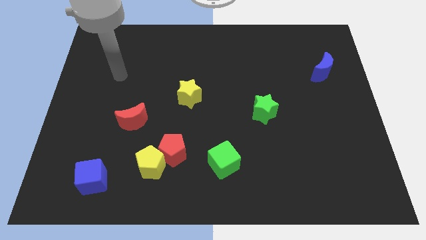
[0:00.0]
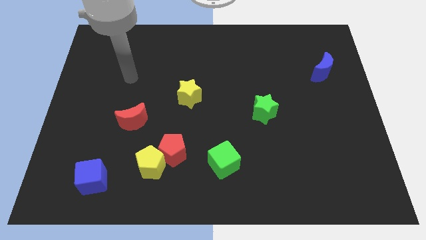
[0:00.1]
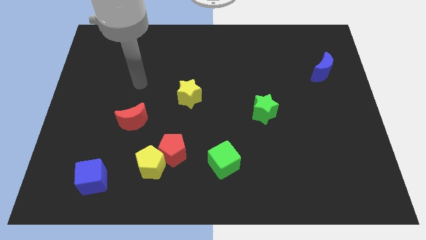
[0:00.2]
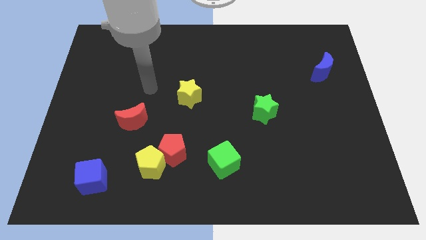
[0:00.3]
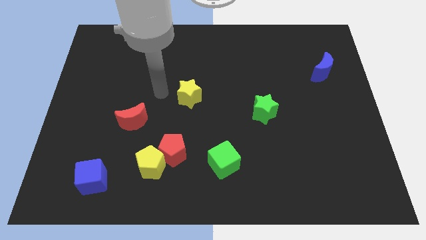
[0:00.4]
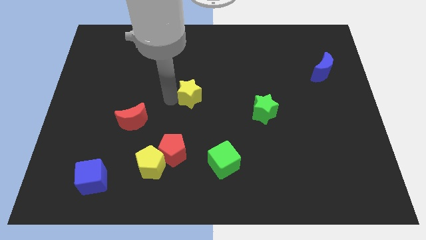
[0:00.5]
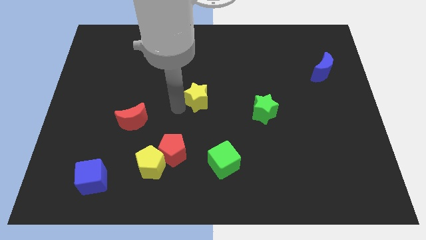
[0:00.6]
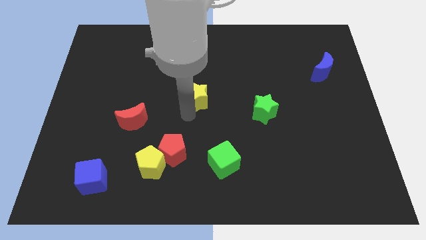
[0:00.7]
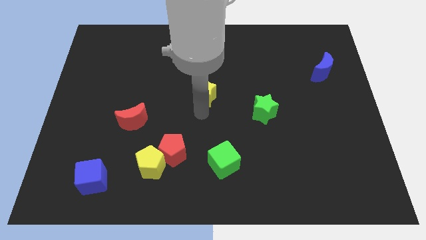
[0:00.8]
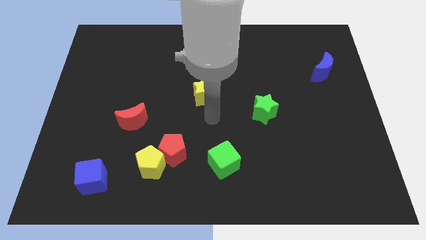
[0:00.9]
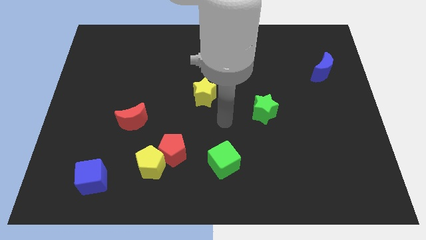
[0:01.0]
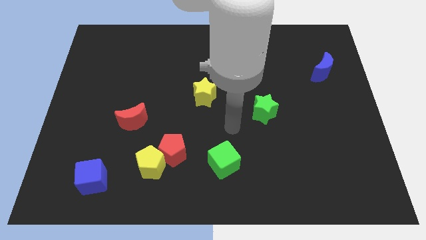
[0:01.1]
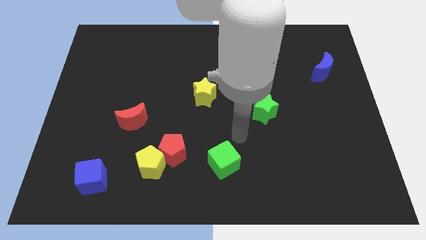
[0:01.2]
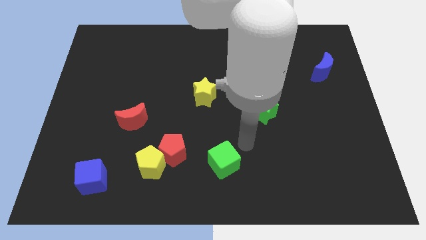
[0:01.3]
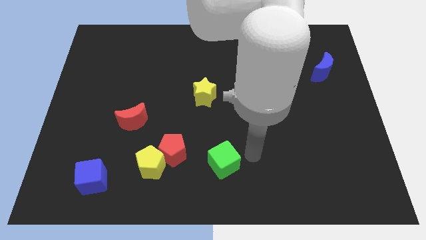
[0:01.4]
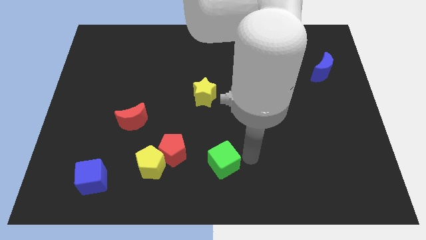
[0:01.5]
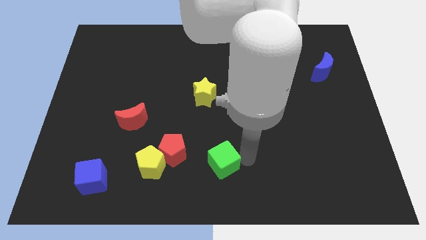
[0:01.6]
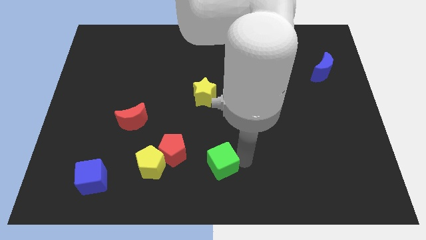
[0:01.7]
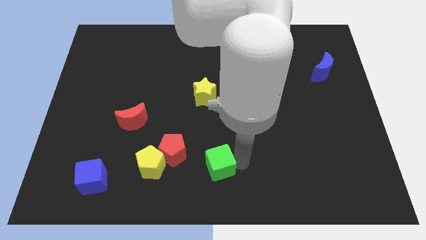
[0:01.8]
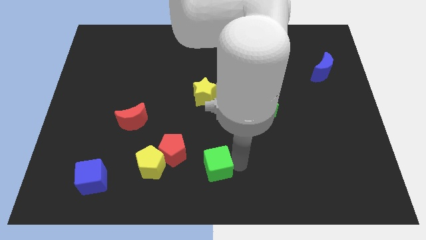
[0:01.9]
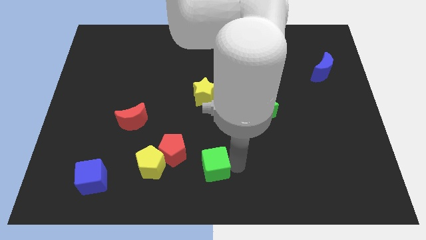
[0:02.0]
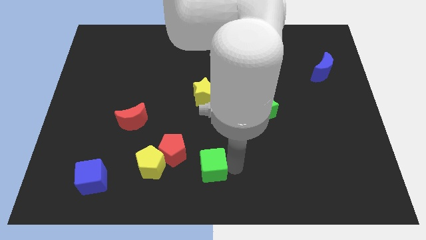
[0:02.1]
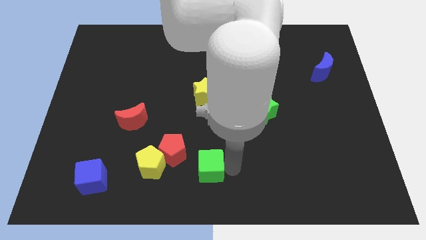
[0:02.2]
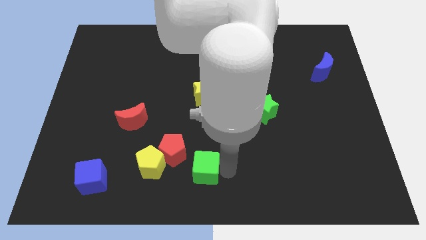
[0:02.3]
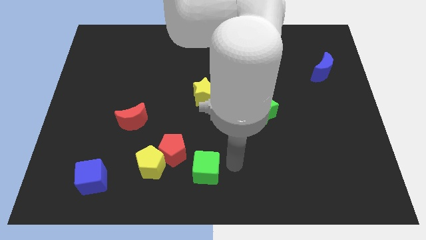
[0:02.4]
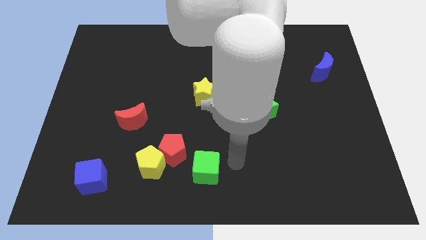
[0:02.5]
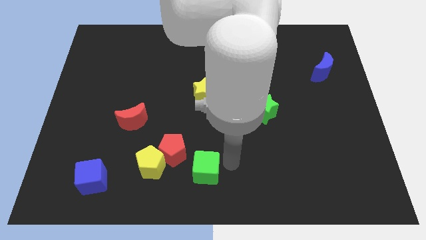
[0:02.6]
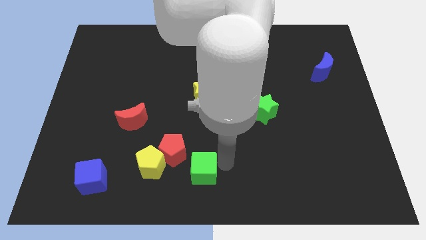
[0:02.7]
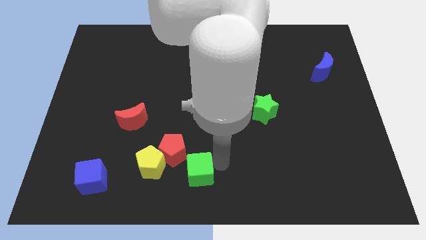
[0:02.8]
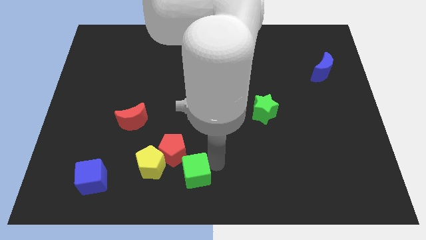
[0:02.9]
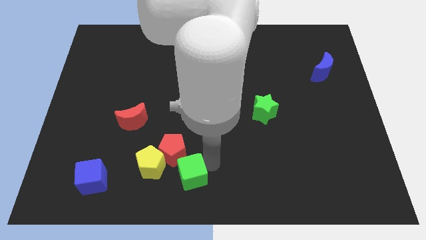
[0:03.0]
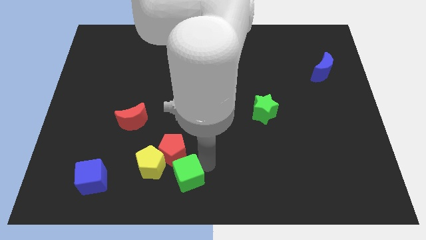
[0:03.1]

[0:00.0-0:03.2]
slide the green cube to the left a little bit

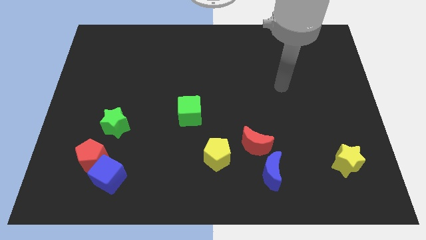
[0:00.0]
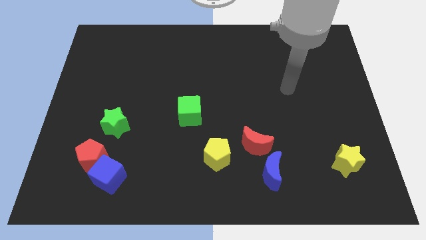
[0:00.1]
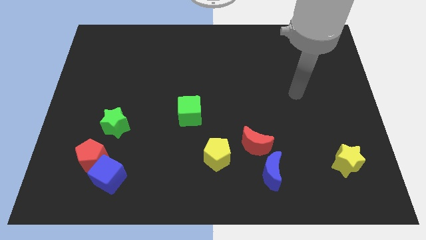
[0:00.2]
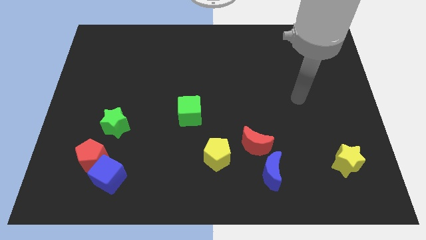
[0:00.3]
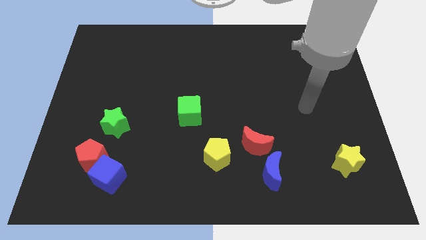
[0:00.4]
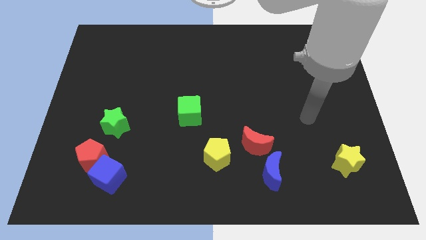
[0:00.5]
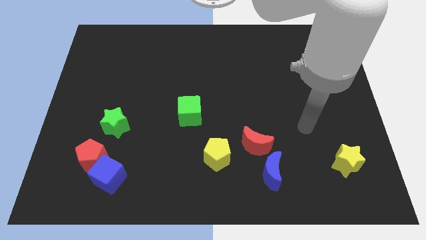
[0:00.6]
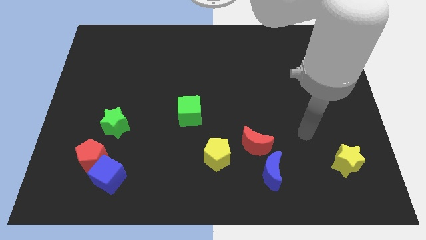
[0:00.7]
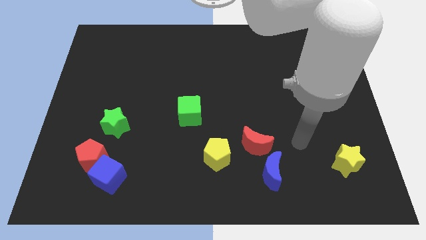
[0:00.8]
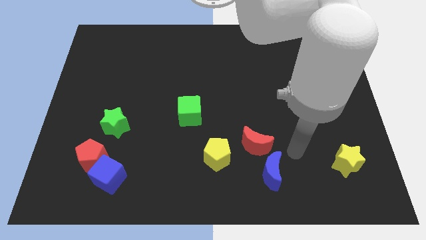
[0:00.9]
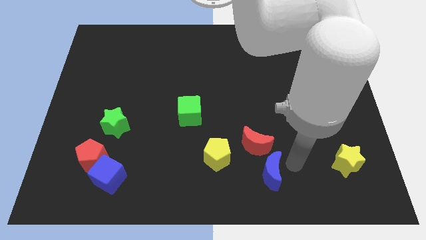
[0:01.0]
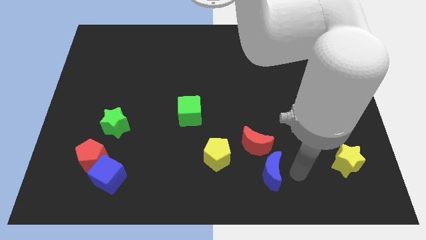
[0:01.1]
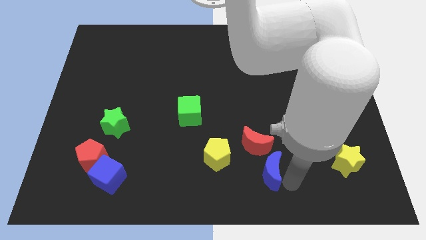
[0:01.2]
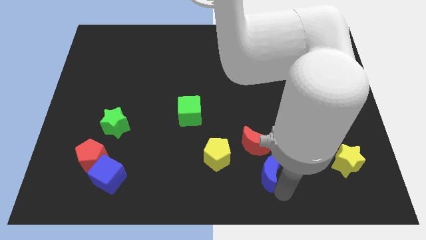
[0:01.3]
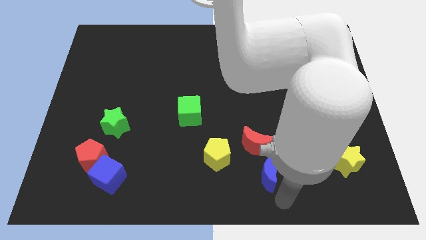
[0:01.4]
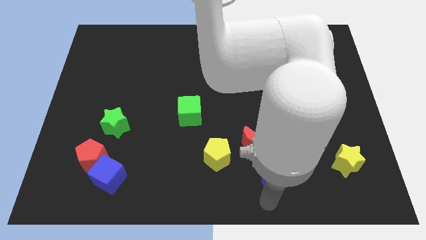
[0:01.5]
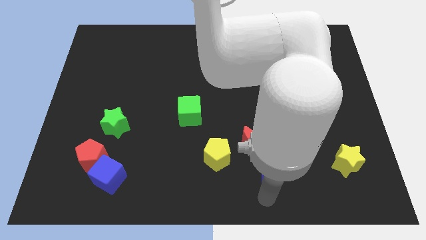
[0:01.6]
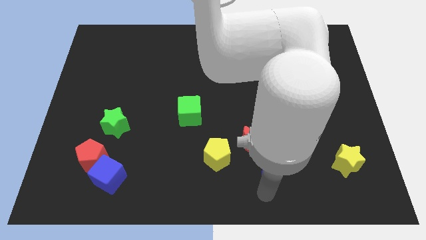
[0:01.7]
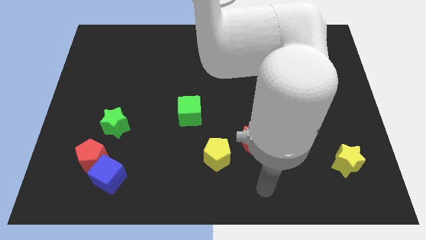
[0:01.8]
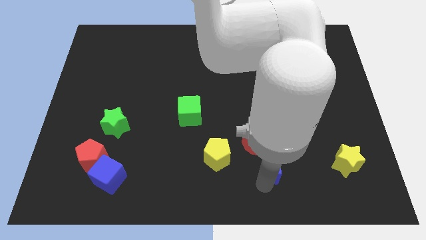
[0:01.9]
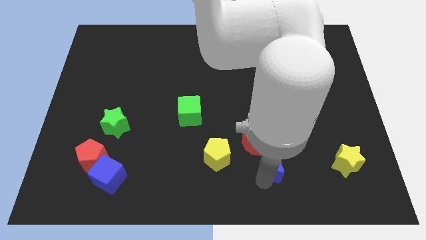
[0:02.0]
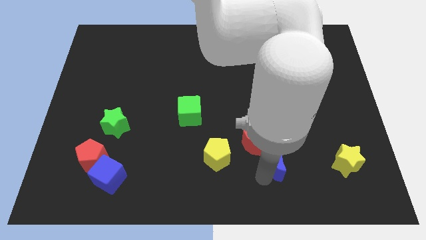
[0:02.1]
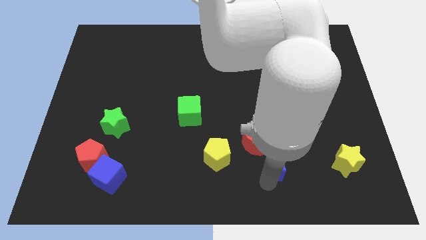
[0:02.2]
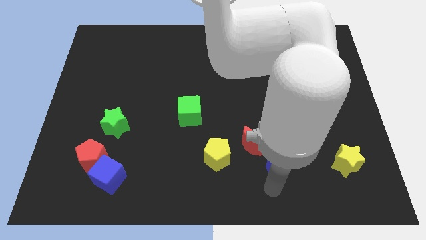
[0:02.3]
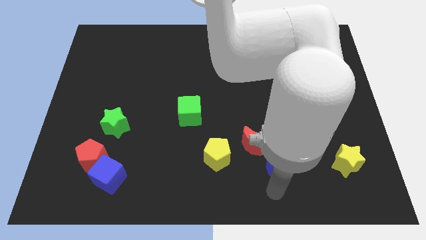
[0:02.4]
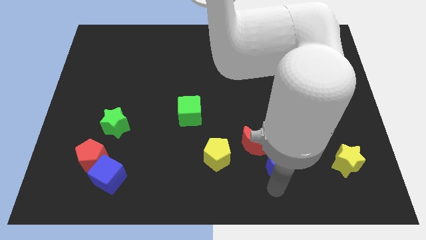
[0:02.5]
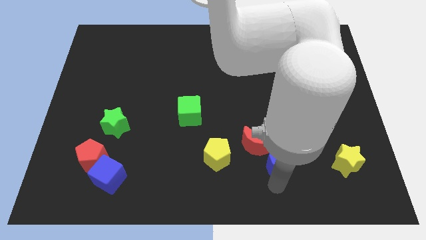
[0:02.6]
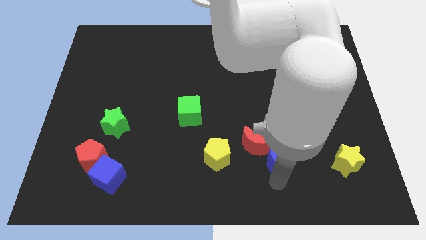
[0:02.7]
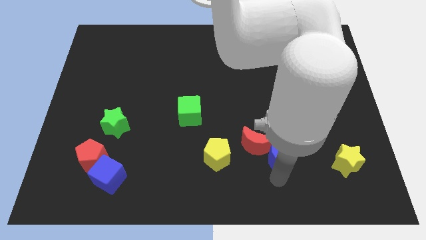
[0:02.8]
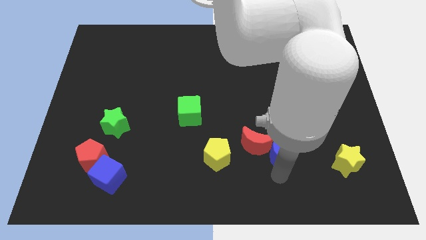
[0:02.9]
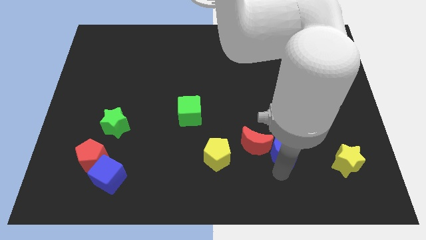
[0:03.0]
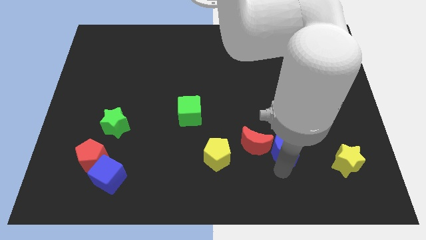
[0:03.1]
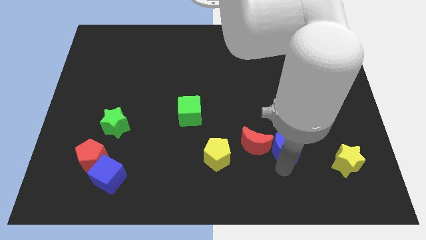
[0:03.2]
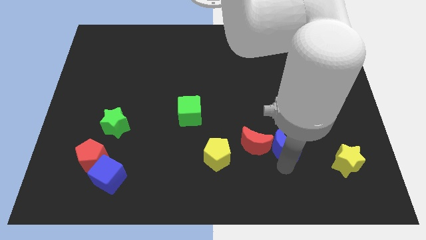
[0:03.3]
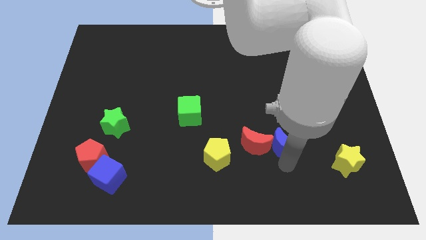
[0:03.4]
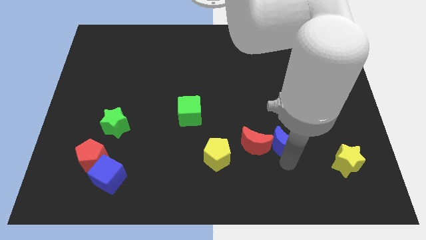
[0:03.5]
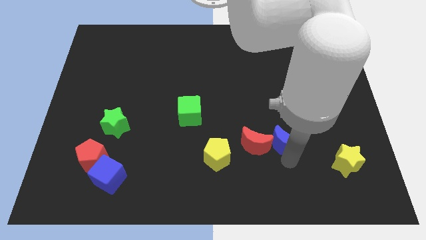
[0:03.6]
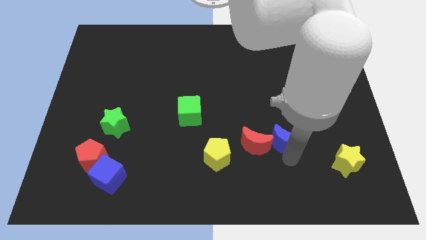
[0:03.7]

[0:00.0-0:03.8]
slightly move the blue moon upwards

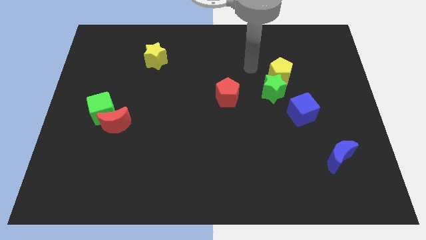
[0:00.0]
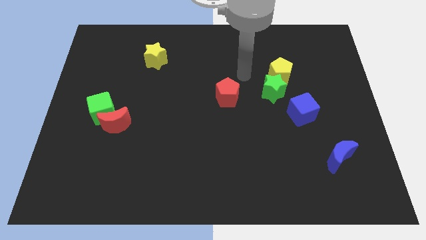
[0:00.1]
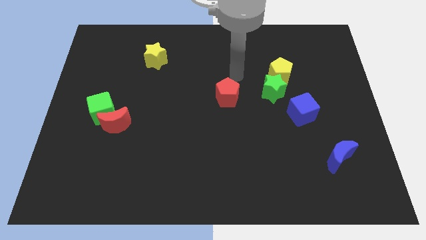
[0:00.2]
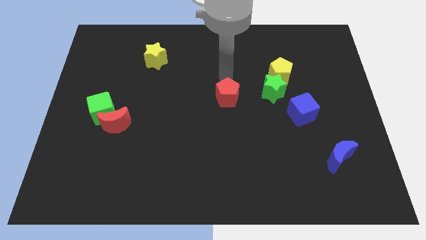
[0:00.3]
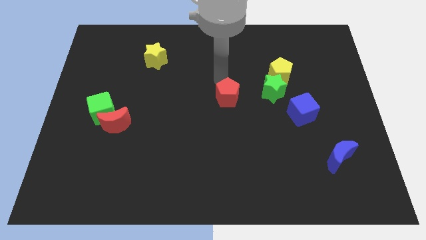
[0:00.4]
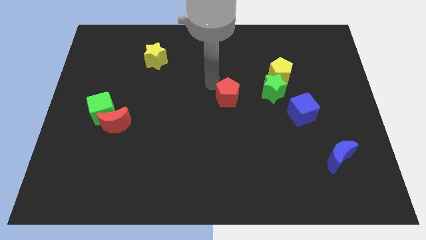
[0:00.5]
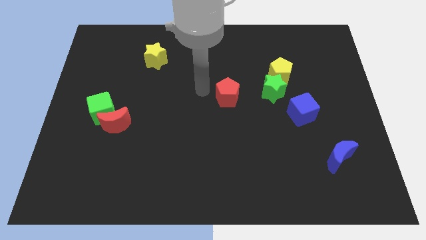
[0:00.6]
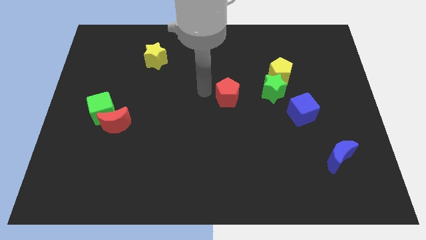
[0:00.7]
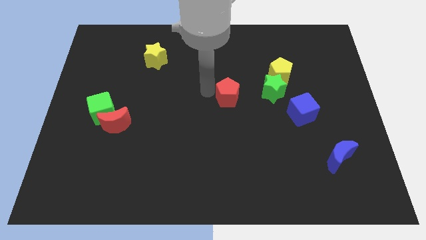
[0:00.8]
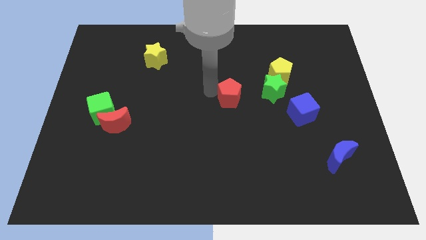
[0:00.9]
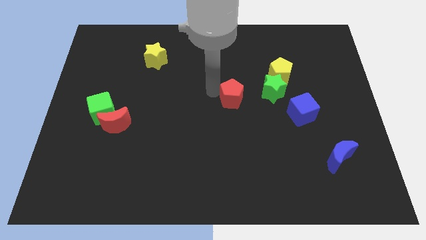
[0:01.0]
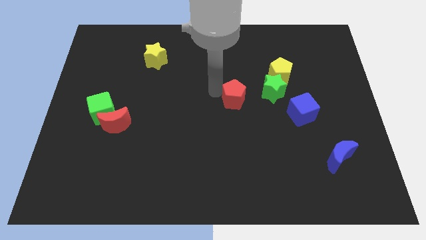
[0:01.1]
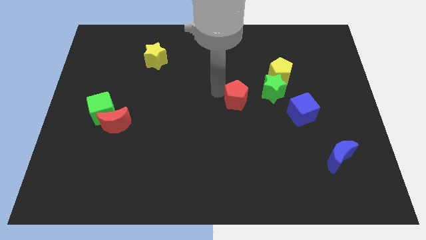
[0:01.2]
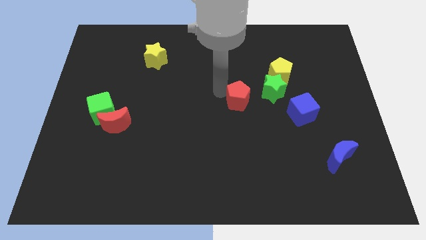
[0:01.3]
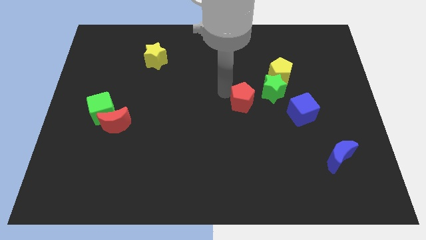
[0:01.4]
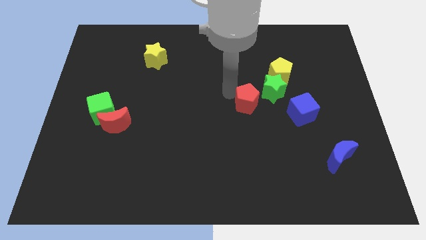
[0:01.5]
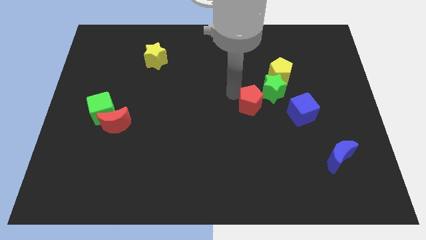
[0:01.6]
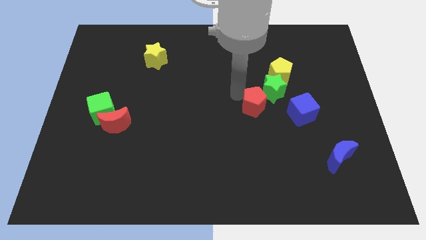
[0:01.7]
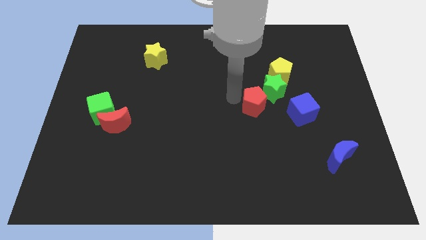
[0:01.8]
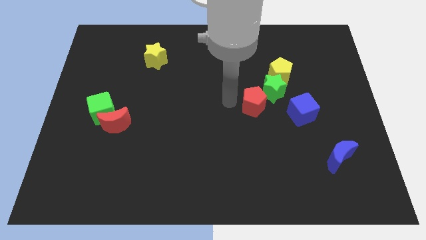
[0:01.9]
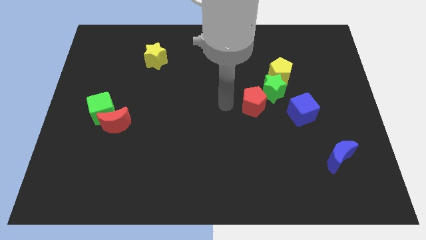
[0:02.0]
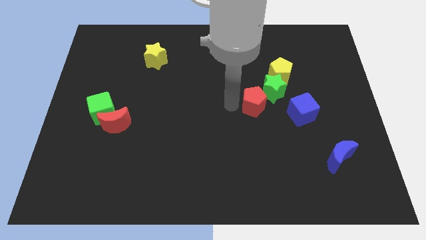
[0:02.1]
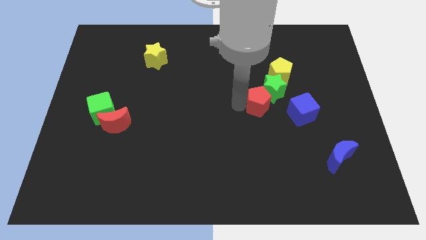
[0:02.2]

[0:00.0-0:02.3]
slightly slide the red pentagon to the right
